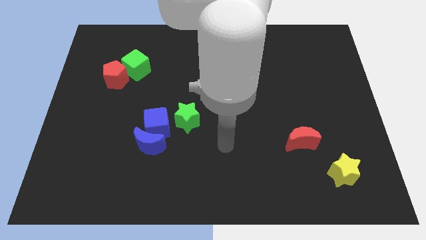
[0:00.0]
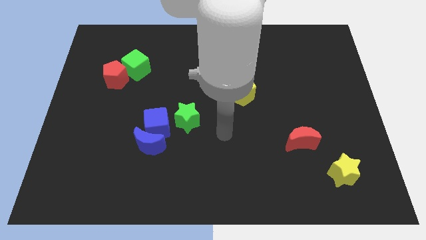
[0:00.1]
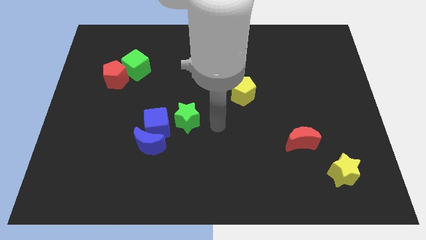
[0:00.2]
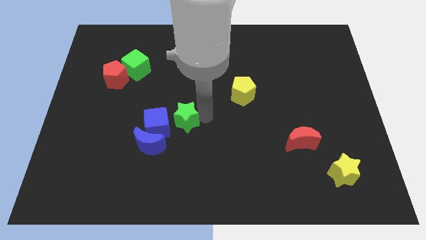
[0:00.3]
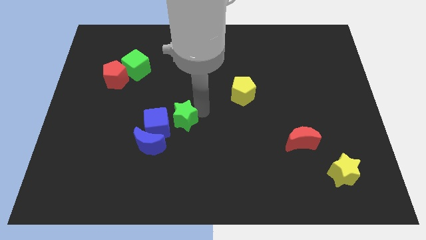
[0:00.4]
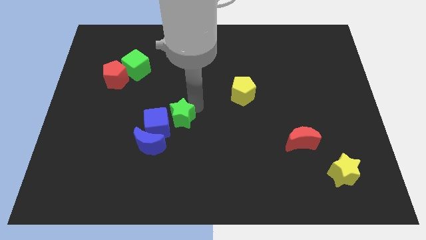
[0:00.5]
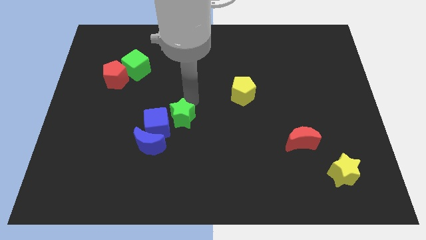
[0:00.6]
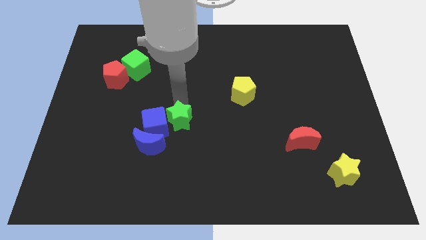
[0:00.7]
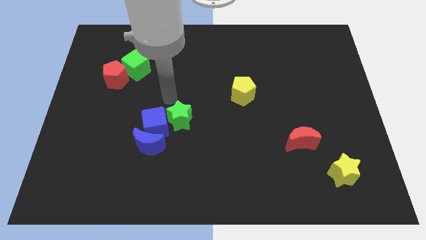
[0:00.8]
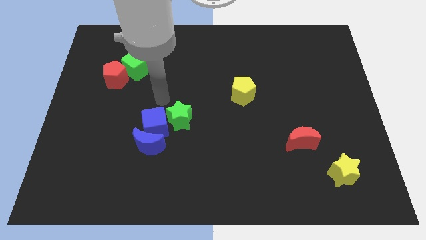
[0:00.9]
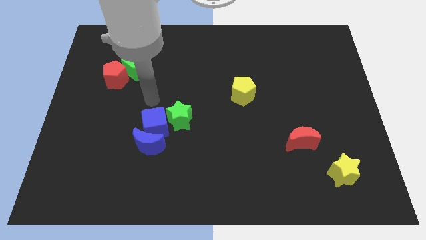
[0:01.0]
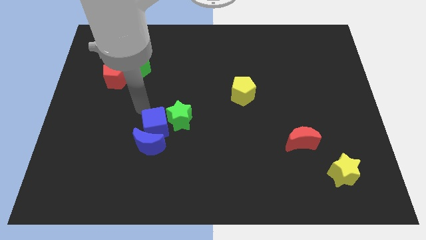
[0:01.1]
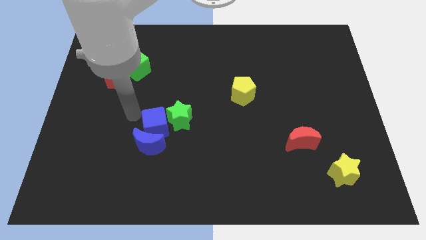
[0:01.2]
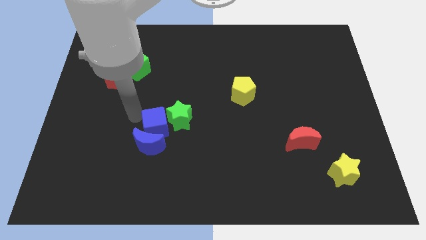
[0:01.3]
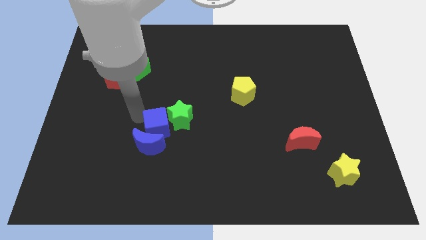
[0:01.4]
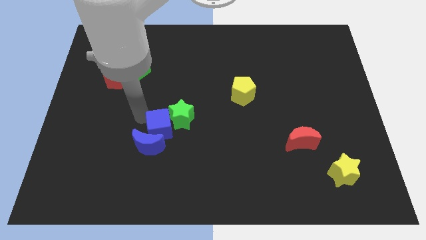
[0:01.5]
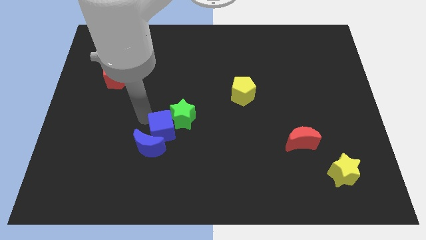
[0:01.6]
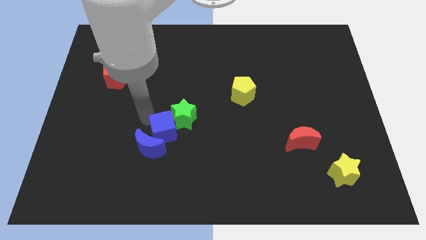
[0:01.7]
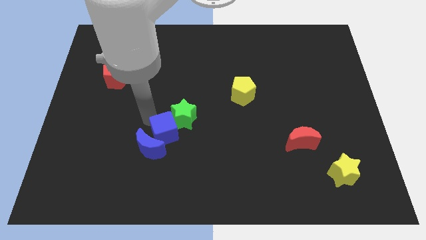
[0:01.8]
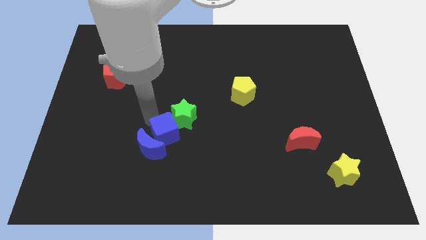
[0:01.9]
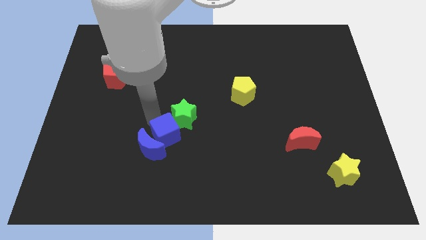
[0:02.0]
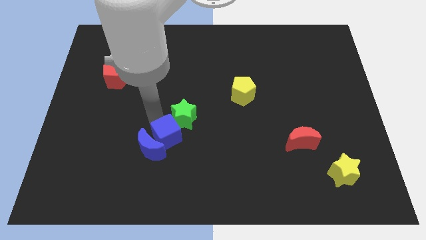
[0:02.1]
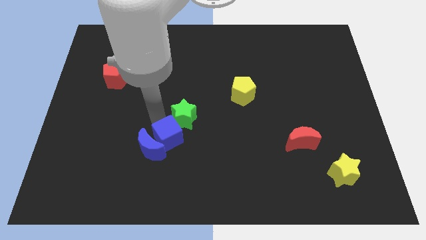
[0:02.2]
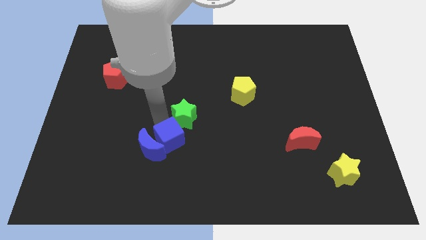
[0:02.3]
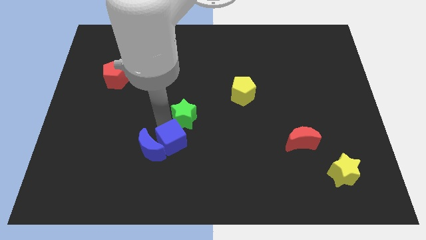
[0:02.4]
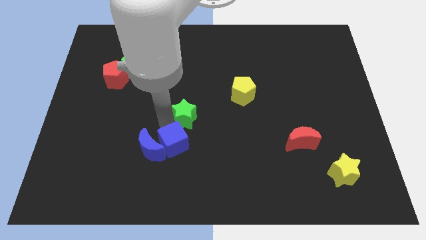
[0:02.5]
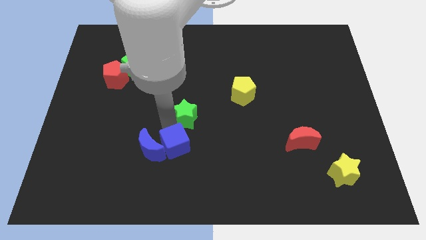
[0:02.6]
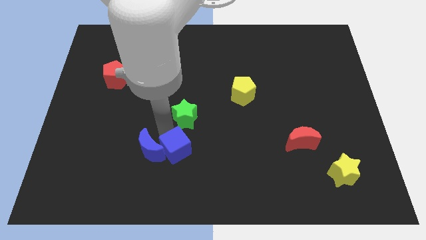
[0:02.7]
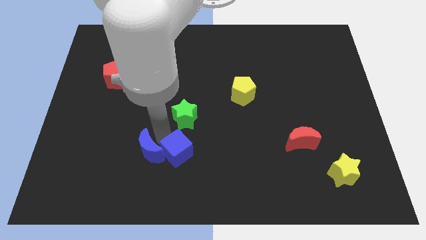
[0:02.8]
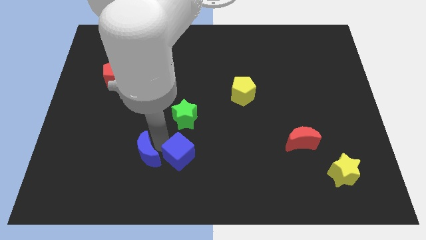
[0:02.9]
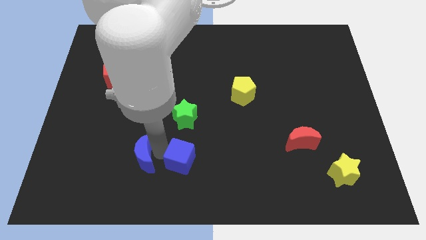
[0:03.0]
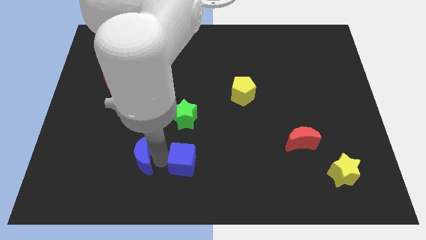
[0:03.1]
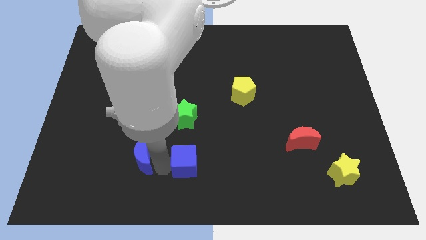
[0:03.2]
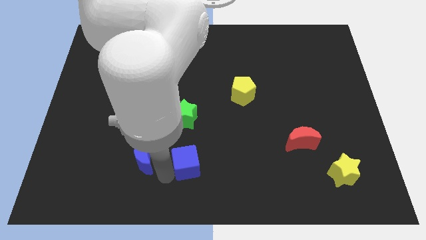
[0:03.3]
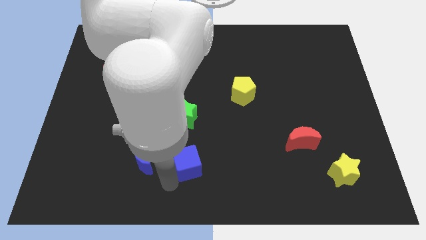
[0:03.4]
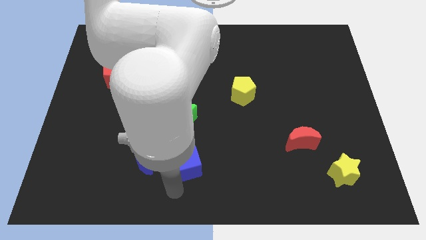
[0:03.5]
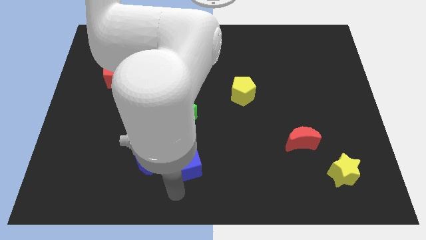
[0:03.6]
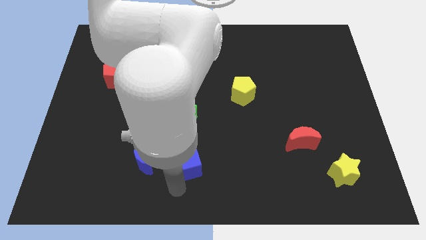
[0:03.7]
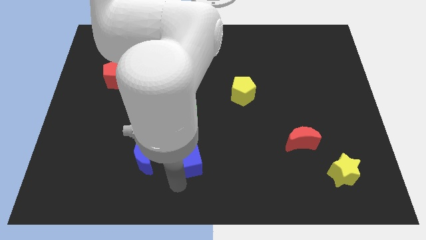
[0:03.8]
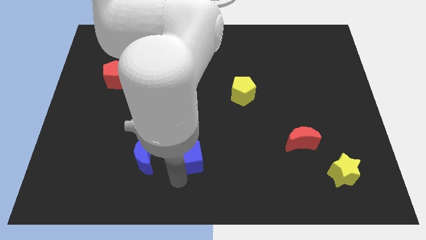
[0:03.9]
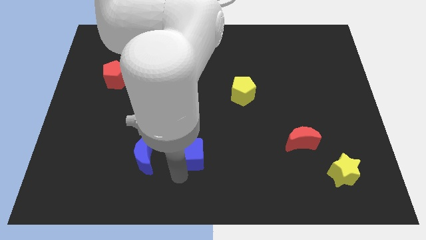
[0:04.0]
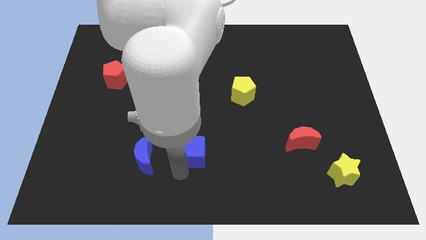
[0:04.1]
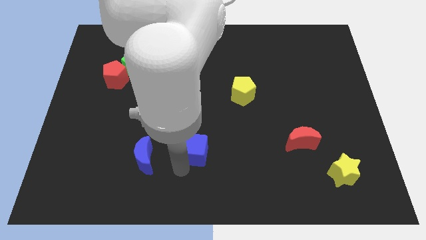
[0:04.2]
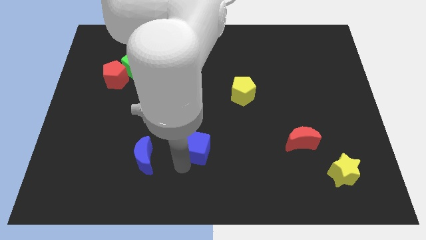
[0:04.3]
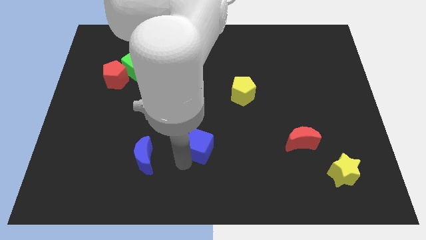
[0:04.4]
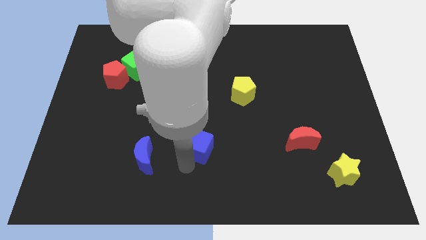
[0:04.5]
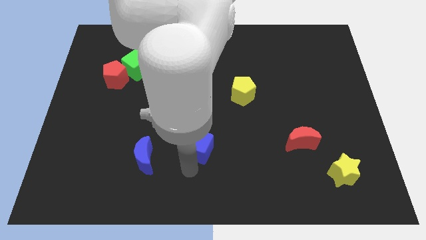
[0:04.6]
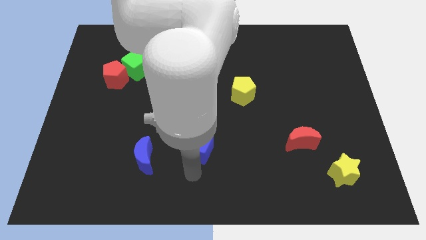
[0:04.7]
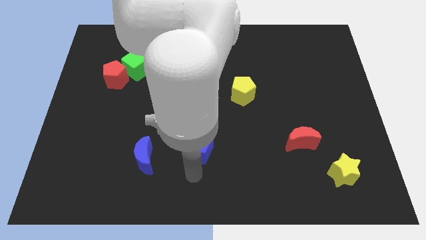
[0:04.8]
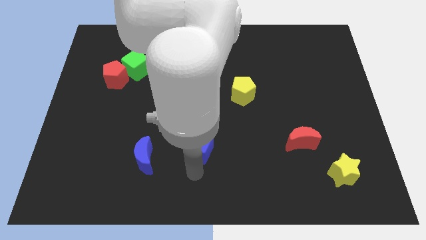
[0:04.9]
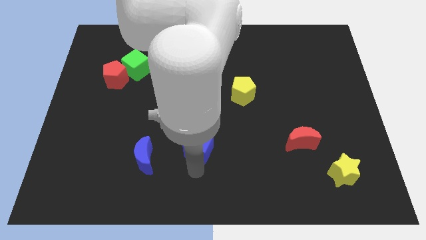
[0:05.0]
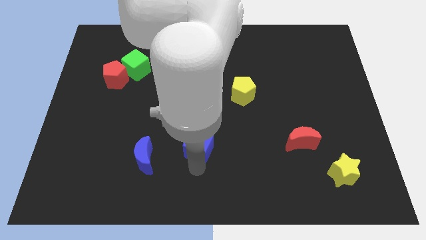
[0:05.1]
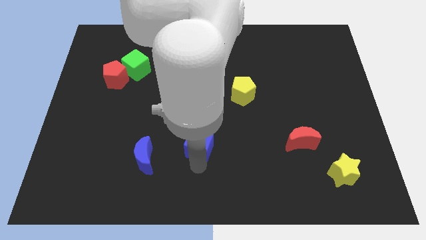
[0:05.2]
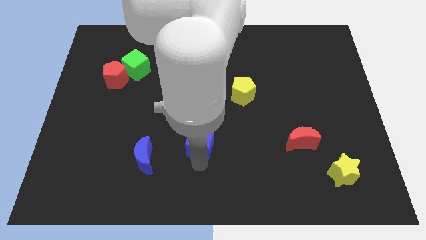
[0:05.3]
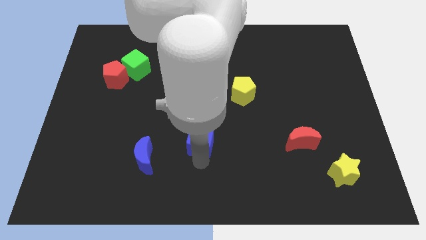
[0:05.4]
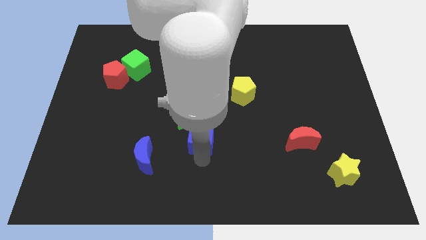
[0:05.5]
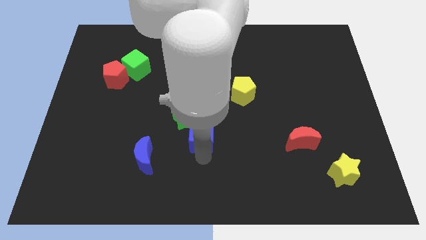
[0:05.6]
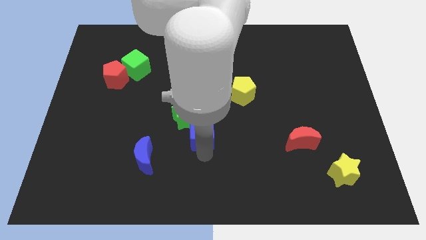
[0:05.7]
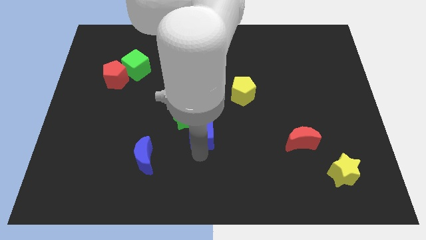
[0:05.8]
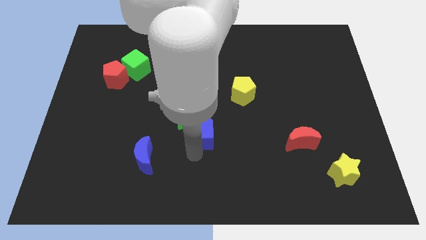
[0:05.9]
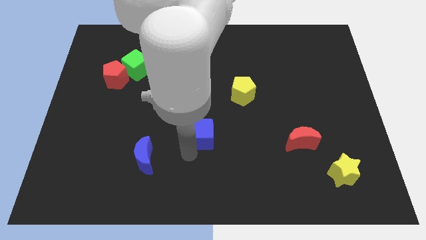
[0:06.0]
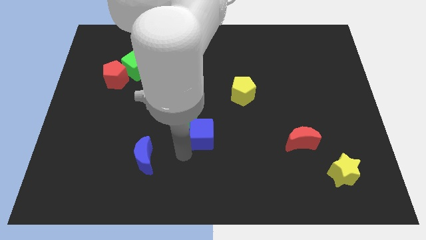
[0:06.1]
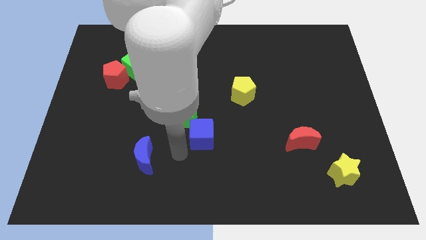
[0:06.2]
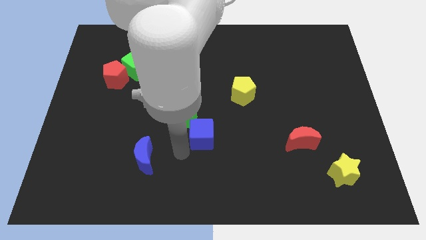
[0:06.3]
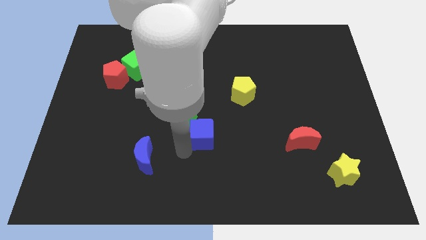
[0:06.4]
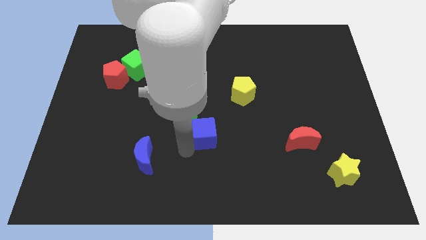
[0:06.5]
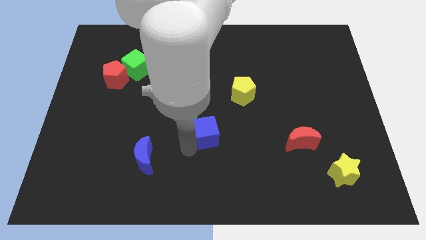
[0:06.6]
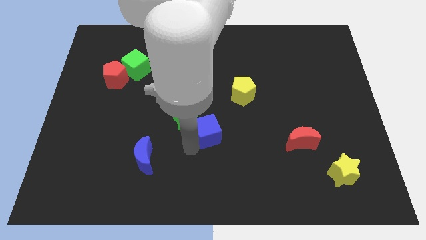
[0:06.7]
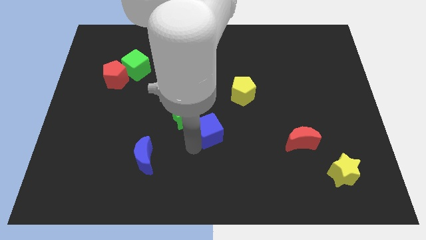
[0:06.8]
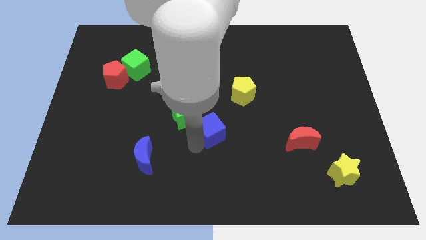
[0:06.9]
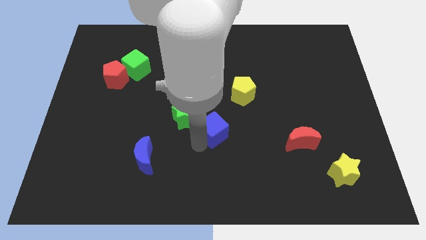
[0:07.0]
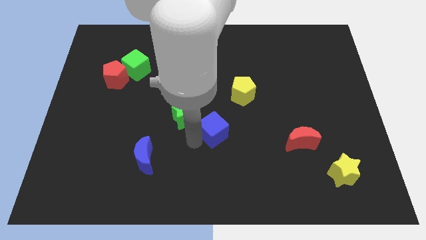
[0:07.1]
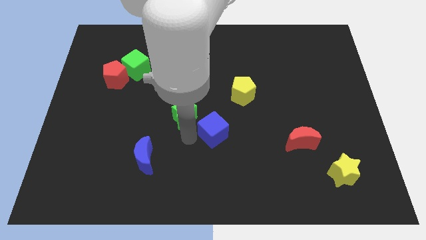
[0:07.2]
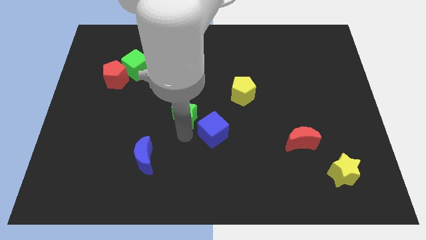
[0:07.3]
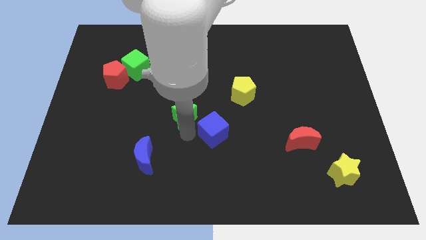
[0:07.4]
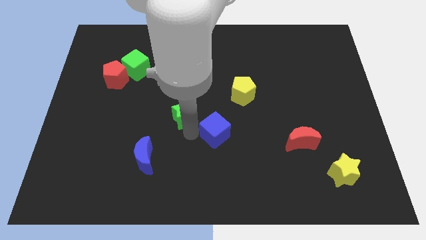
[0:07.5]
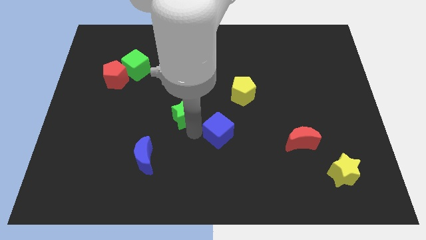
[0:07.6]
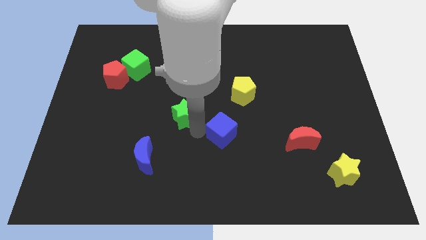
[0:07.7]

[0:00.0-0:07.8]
put the blue cube to the bottom side of the yellow pentagon
